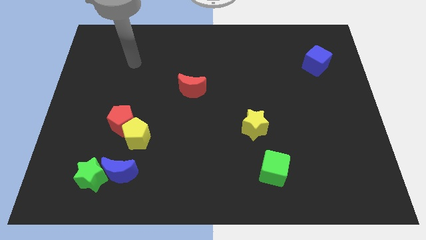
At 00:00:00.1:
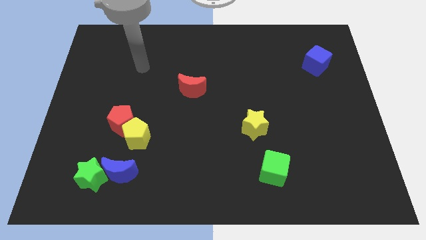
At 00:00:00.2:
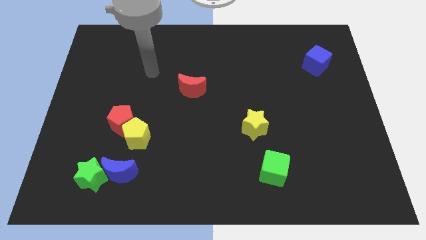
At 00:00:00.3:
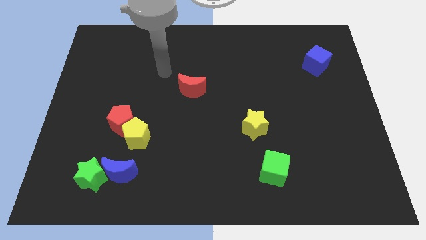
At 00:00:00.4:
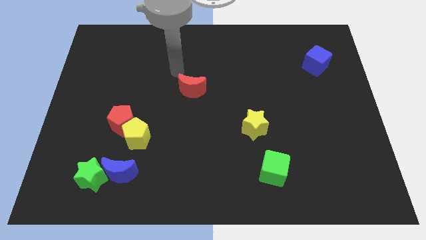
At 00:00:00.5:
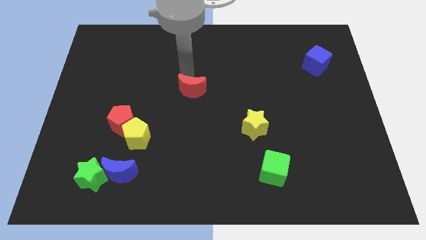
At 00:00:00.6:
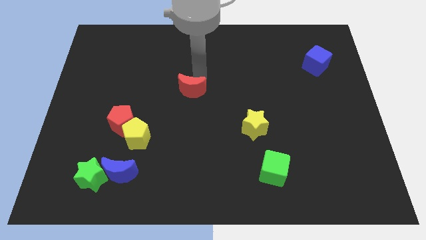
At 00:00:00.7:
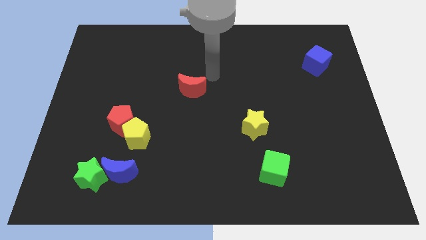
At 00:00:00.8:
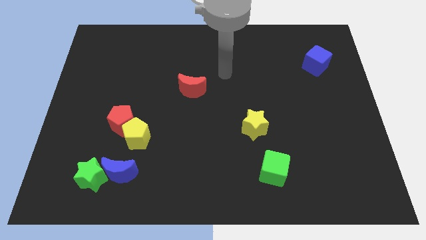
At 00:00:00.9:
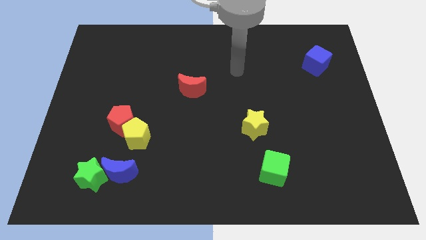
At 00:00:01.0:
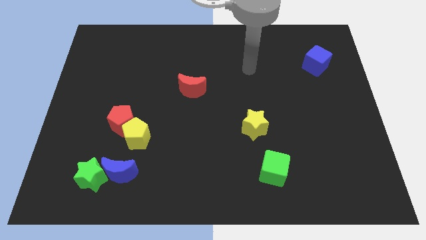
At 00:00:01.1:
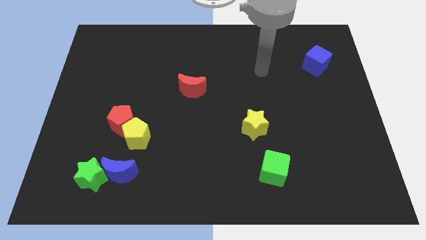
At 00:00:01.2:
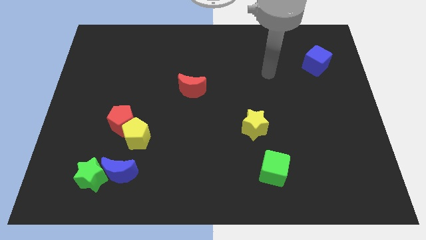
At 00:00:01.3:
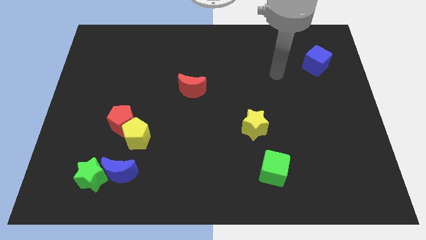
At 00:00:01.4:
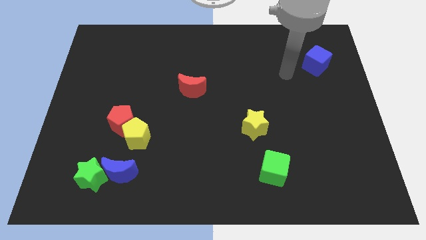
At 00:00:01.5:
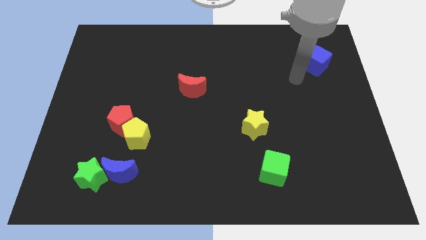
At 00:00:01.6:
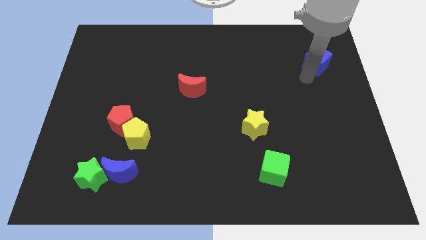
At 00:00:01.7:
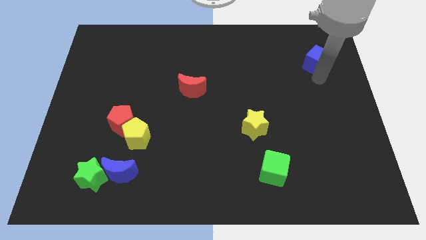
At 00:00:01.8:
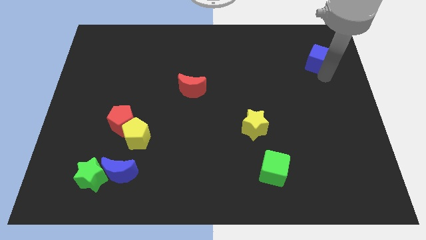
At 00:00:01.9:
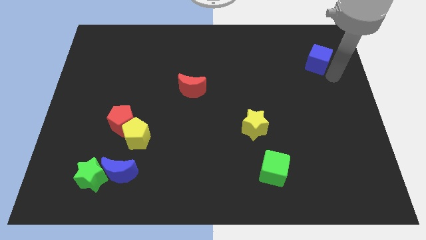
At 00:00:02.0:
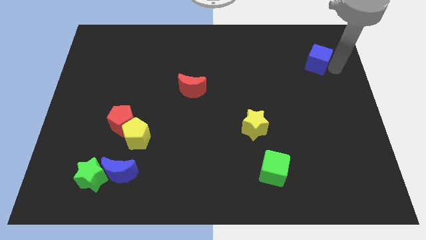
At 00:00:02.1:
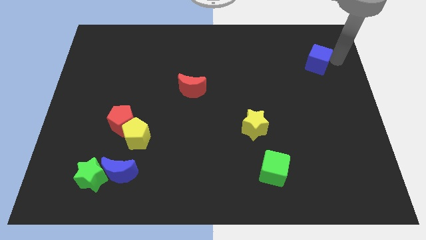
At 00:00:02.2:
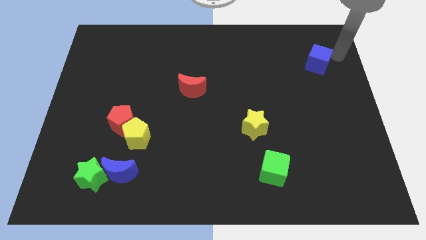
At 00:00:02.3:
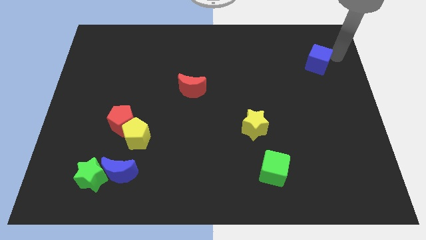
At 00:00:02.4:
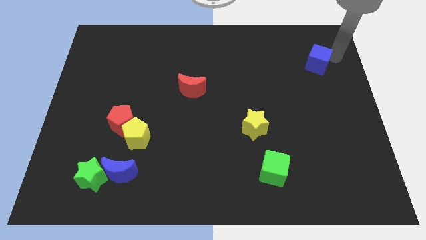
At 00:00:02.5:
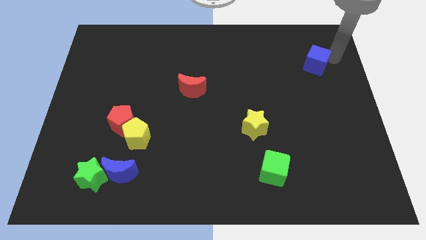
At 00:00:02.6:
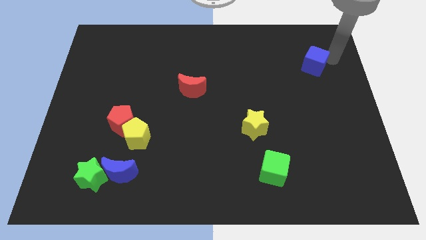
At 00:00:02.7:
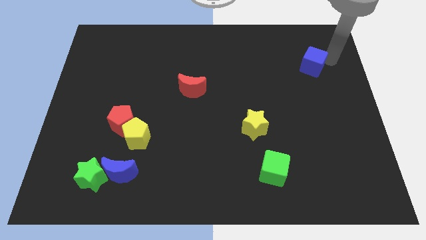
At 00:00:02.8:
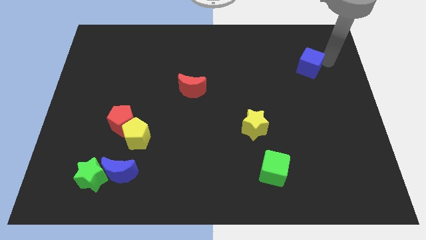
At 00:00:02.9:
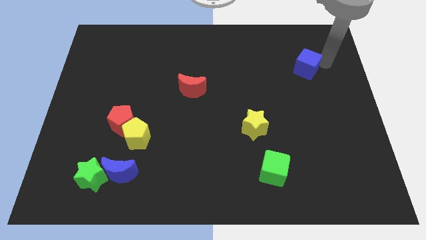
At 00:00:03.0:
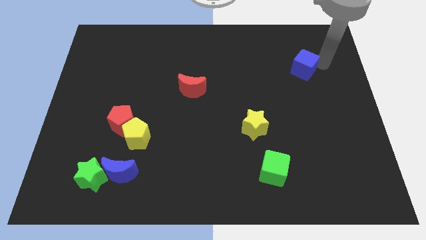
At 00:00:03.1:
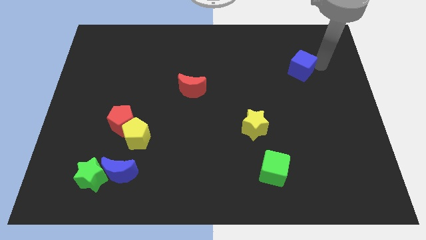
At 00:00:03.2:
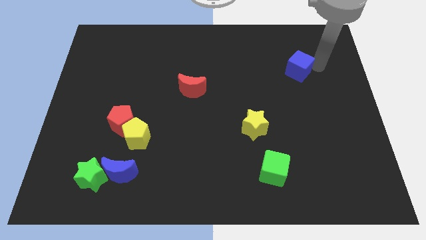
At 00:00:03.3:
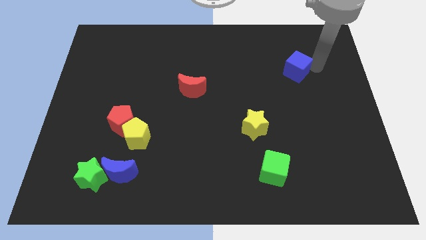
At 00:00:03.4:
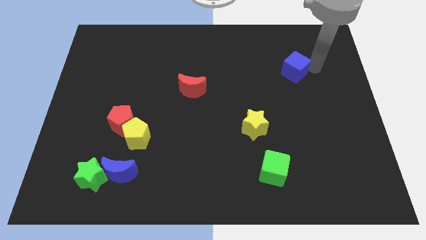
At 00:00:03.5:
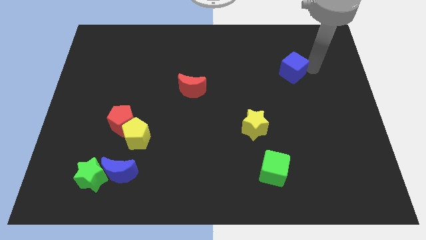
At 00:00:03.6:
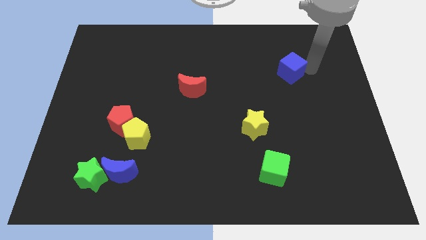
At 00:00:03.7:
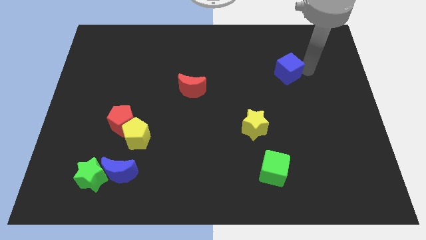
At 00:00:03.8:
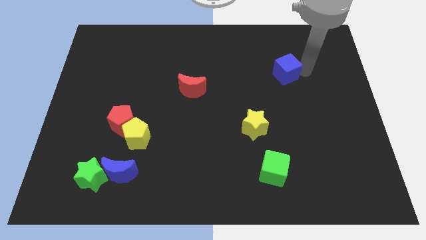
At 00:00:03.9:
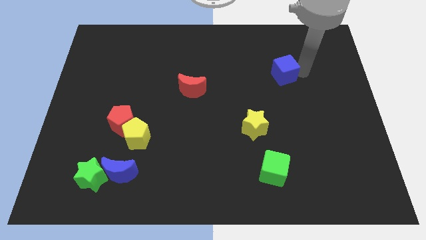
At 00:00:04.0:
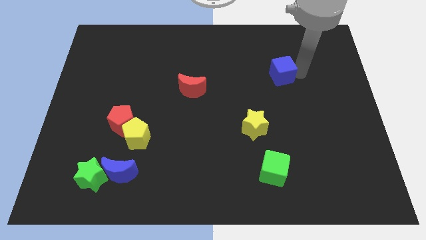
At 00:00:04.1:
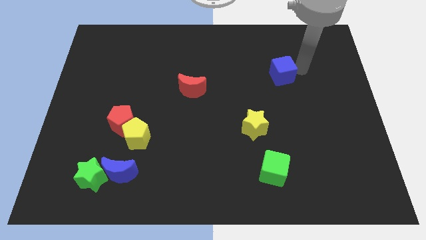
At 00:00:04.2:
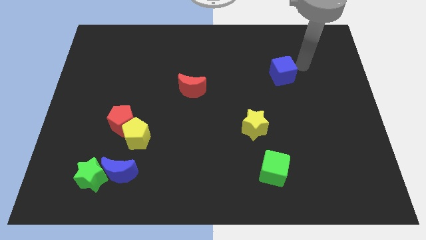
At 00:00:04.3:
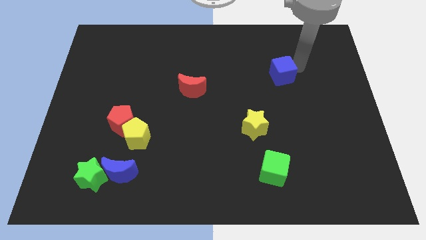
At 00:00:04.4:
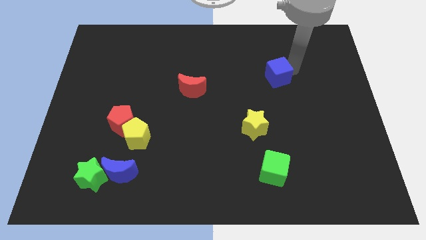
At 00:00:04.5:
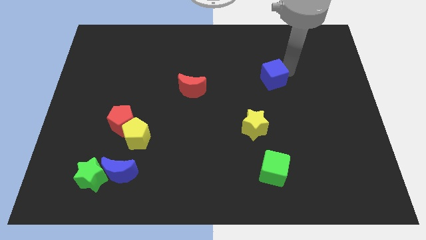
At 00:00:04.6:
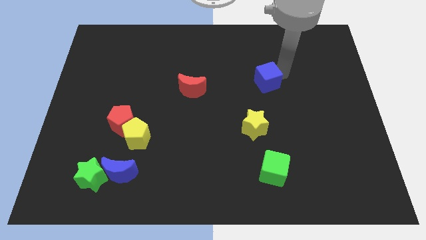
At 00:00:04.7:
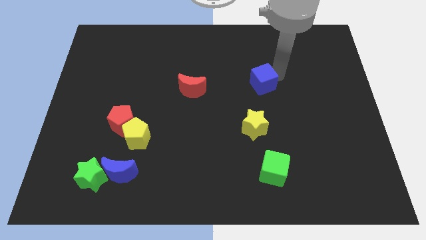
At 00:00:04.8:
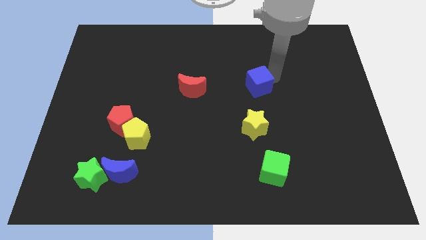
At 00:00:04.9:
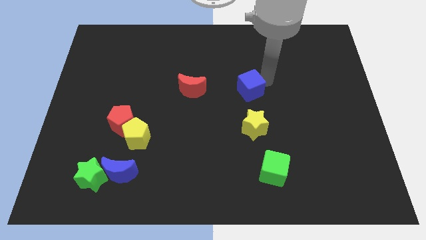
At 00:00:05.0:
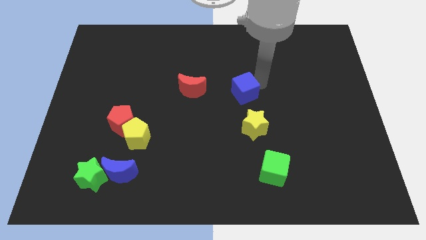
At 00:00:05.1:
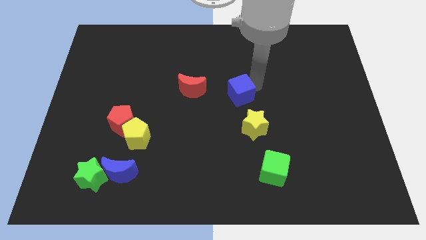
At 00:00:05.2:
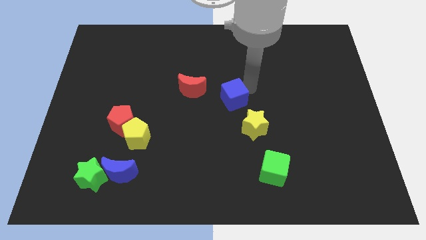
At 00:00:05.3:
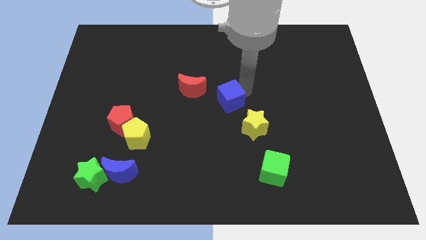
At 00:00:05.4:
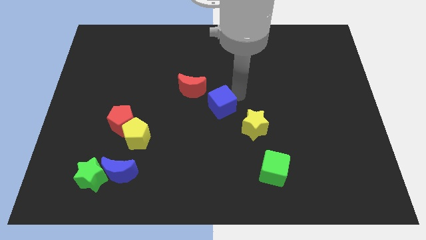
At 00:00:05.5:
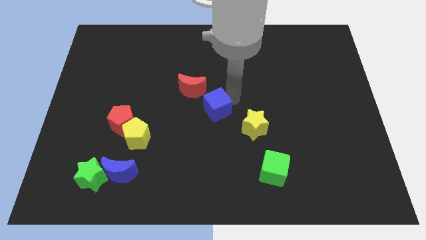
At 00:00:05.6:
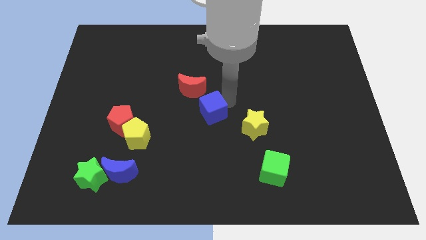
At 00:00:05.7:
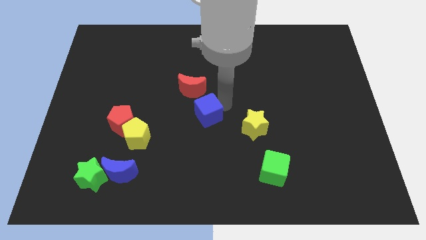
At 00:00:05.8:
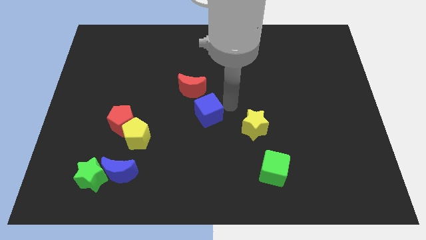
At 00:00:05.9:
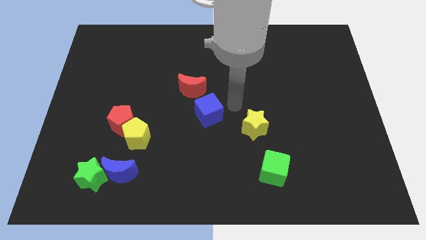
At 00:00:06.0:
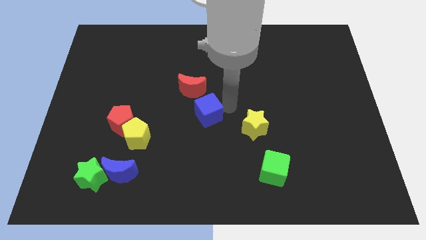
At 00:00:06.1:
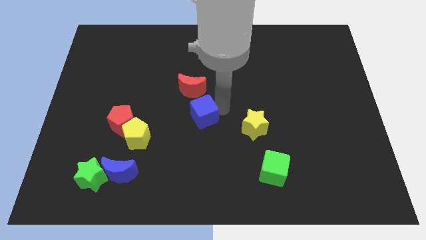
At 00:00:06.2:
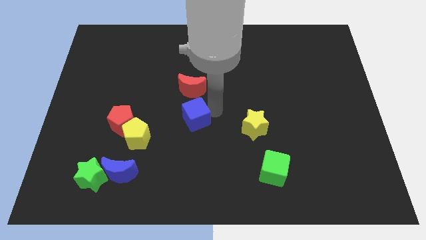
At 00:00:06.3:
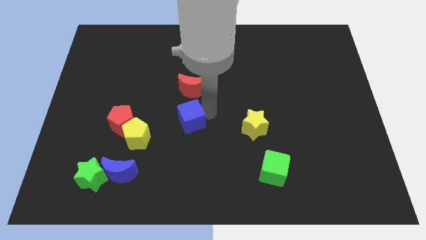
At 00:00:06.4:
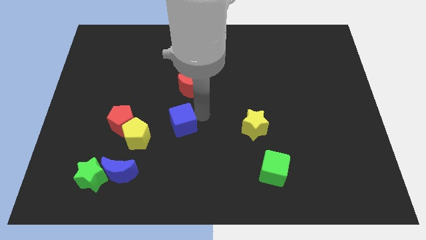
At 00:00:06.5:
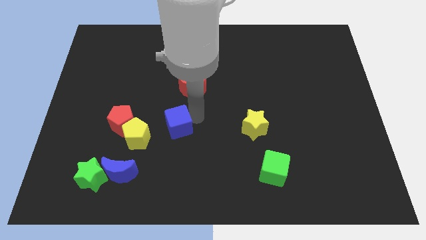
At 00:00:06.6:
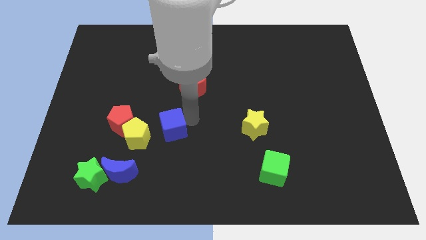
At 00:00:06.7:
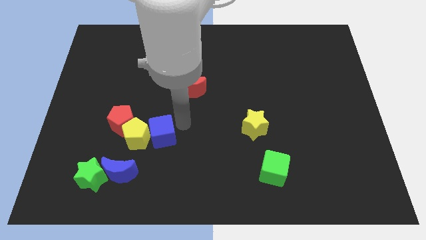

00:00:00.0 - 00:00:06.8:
move the blue cube close to the yellow pentagon

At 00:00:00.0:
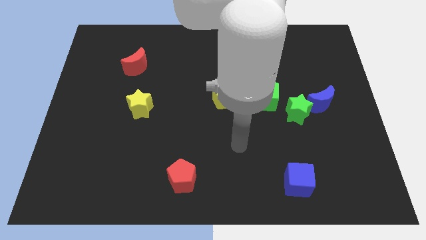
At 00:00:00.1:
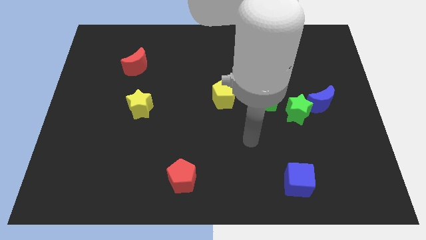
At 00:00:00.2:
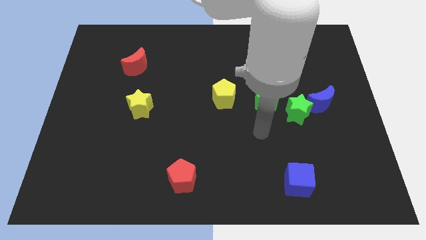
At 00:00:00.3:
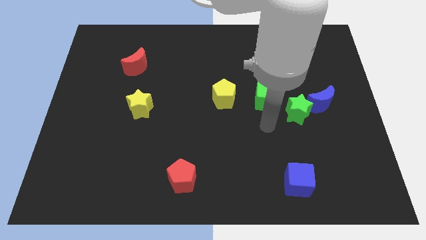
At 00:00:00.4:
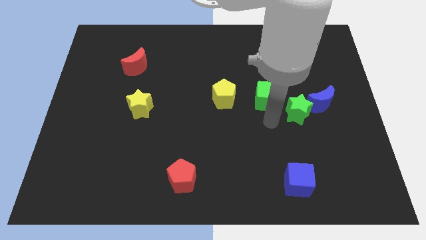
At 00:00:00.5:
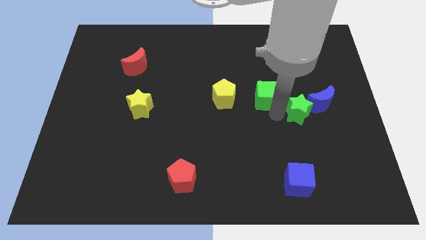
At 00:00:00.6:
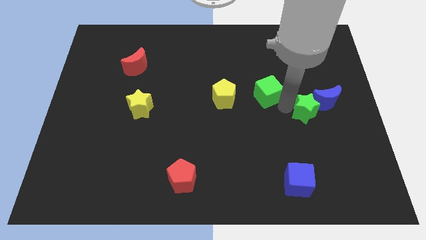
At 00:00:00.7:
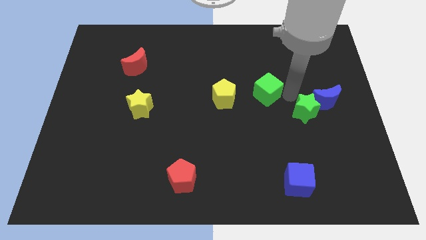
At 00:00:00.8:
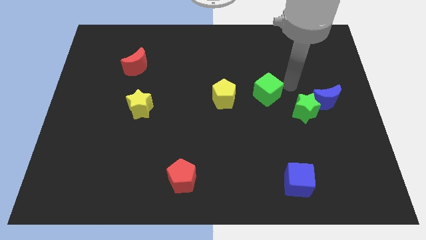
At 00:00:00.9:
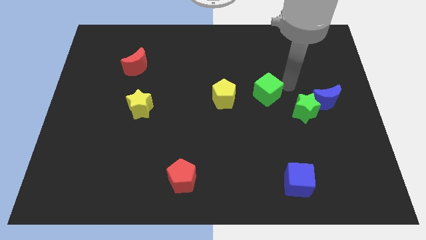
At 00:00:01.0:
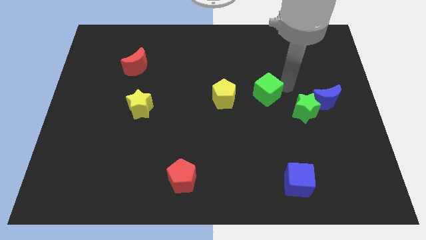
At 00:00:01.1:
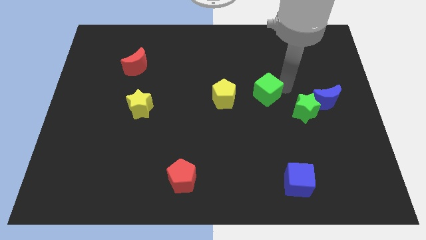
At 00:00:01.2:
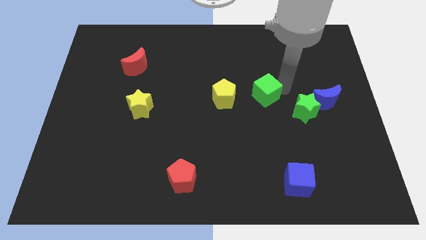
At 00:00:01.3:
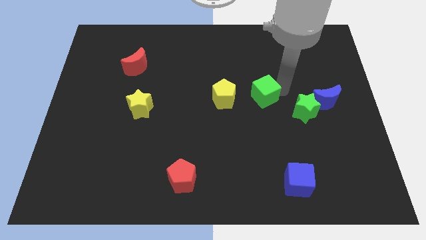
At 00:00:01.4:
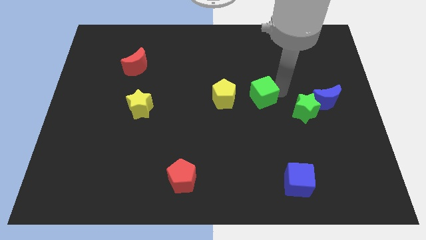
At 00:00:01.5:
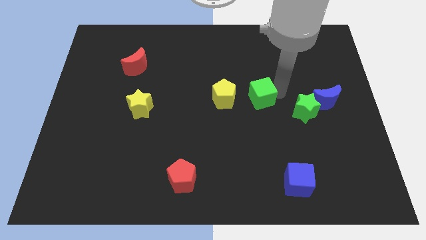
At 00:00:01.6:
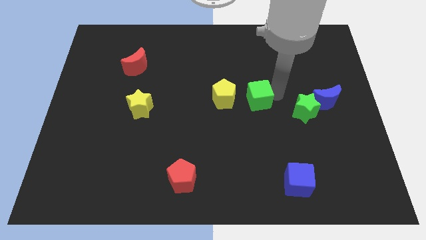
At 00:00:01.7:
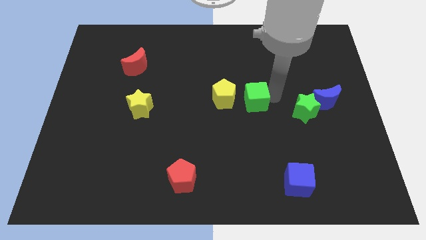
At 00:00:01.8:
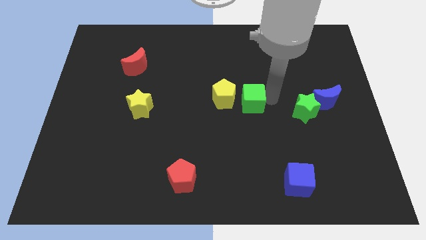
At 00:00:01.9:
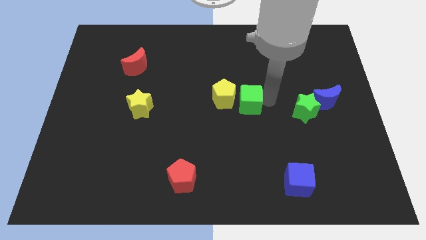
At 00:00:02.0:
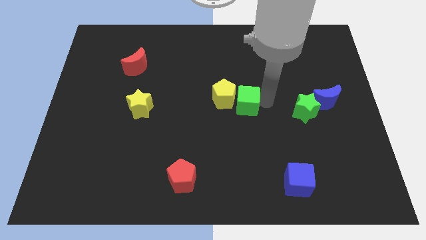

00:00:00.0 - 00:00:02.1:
move the green cube to the yellow pentagon
